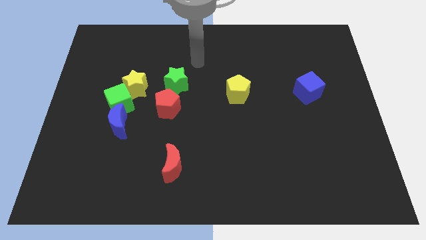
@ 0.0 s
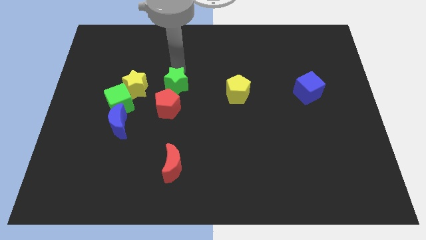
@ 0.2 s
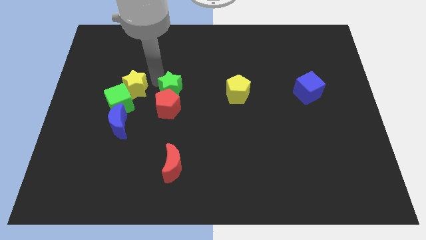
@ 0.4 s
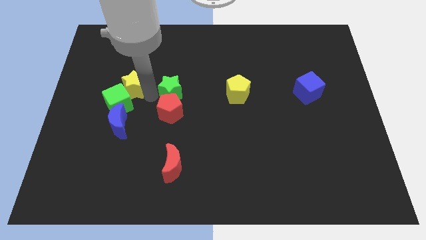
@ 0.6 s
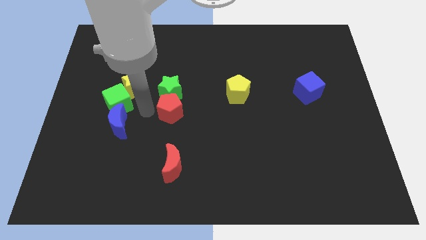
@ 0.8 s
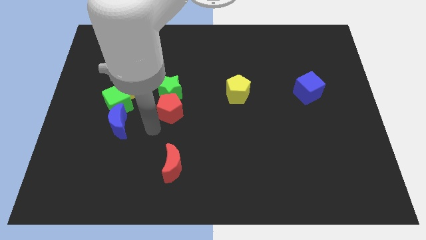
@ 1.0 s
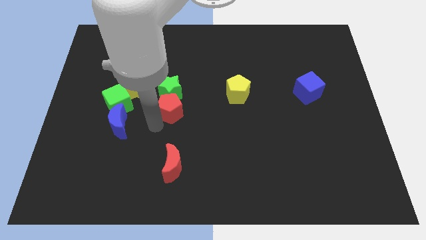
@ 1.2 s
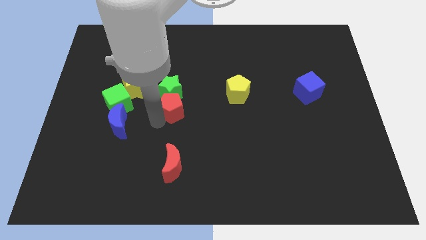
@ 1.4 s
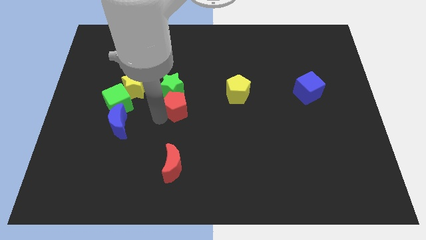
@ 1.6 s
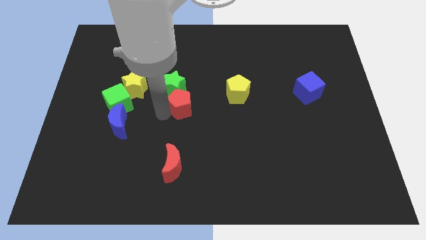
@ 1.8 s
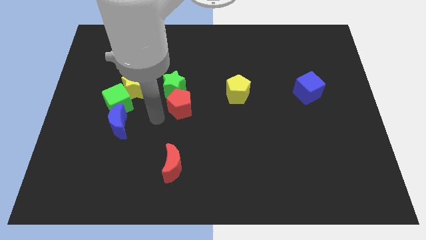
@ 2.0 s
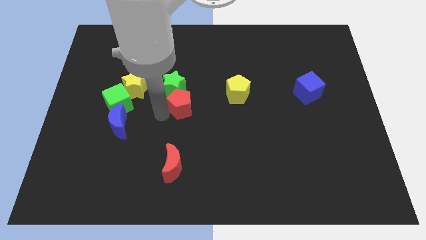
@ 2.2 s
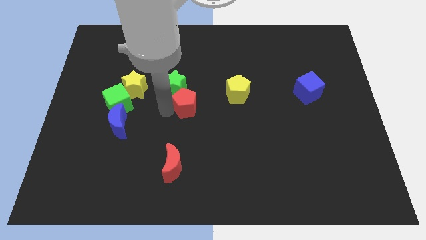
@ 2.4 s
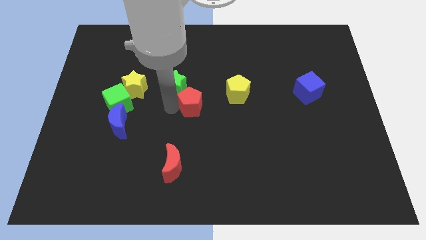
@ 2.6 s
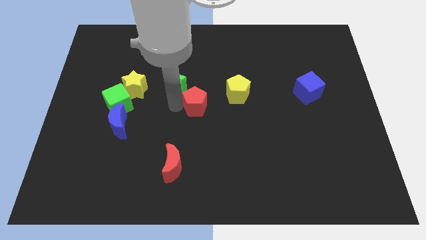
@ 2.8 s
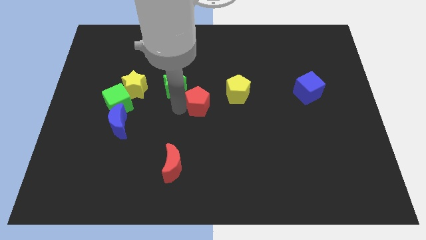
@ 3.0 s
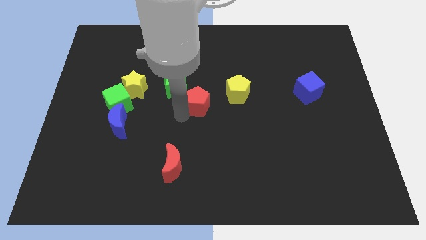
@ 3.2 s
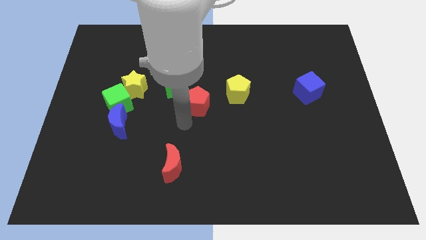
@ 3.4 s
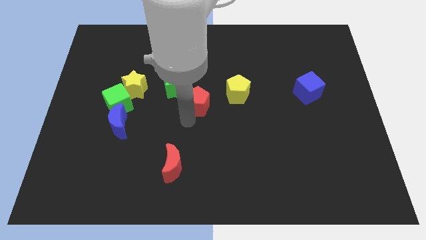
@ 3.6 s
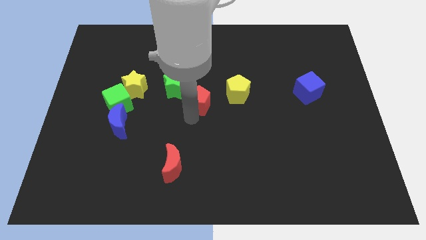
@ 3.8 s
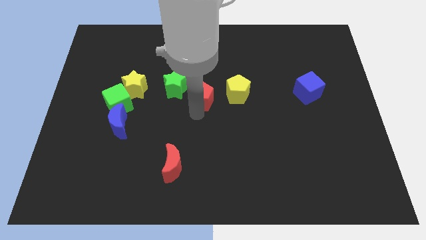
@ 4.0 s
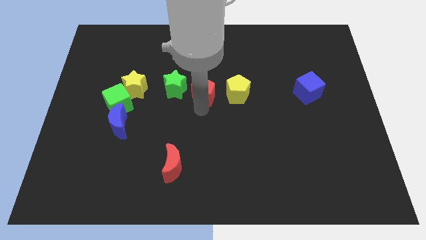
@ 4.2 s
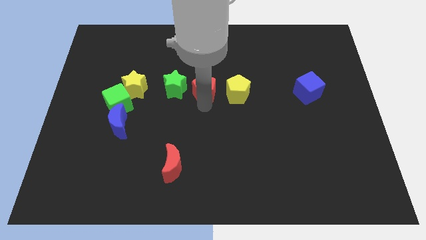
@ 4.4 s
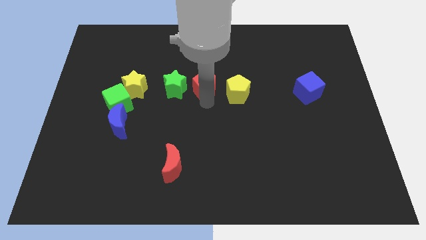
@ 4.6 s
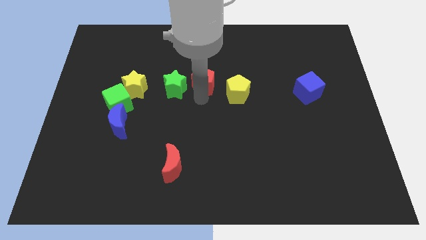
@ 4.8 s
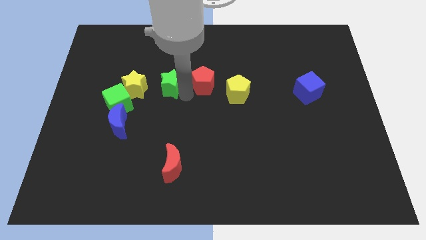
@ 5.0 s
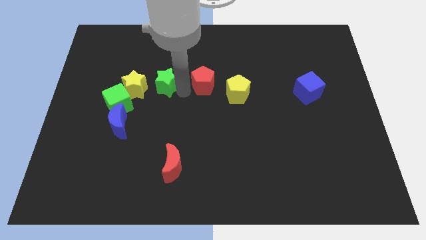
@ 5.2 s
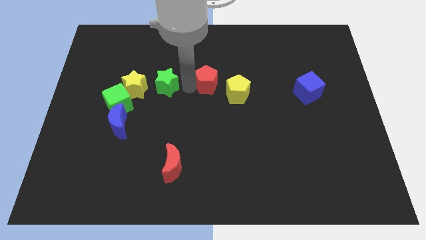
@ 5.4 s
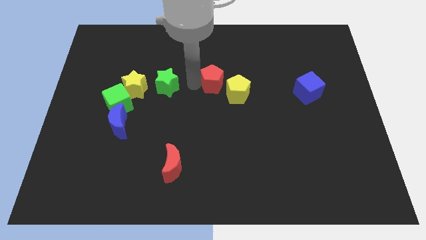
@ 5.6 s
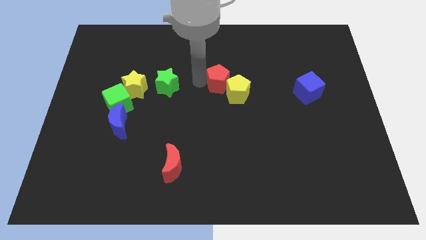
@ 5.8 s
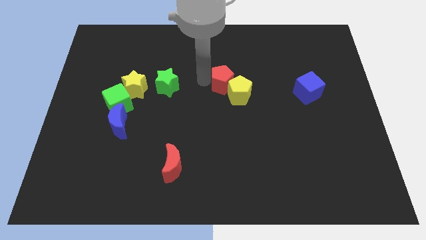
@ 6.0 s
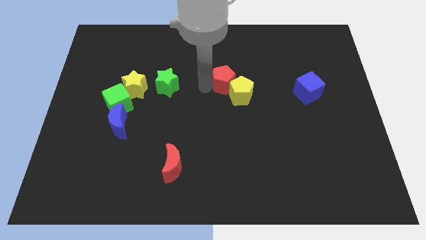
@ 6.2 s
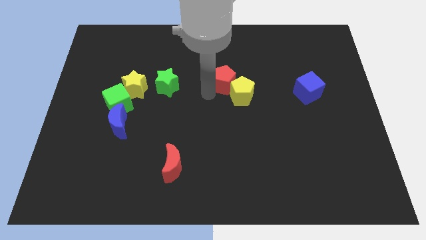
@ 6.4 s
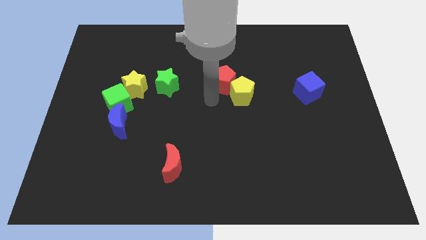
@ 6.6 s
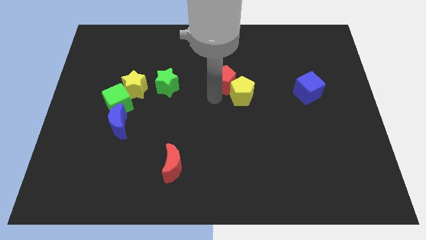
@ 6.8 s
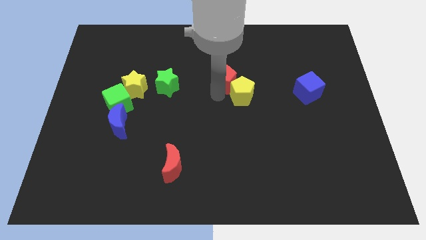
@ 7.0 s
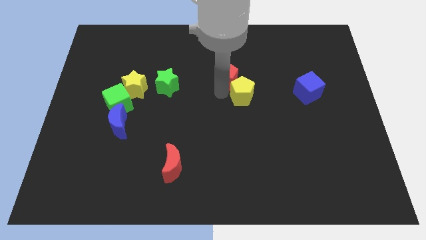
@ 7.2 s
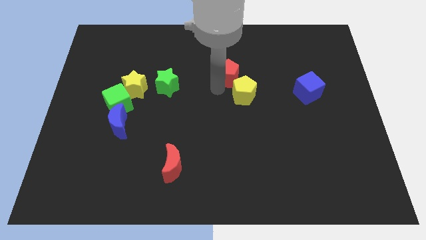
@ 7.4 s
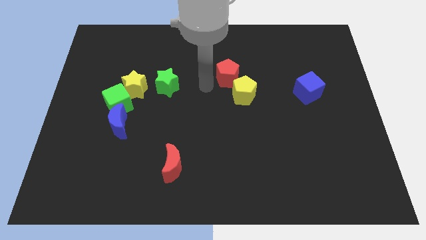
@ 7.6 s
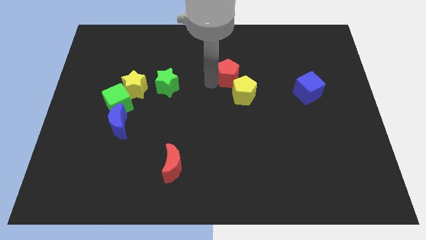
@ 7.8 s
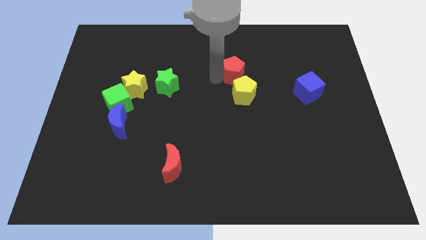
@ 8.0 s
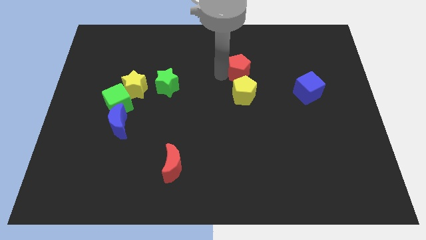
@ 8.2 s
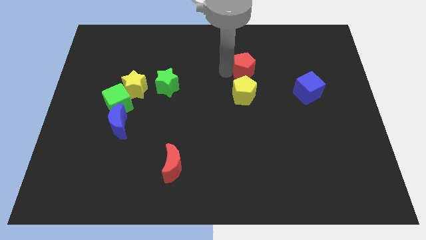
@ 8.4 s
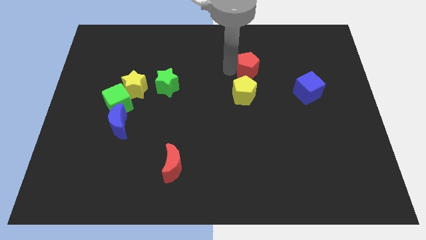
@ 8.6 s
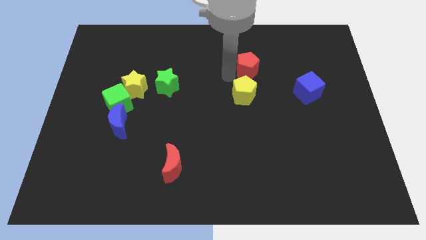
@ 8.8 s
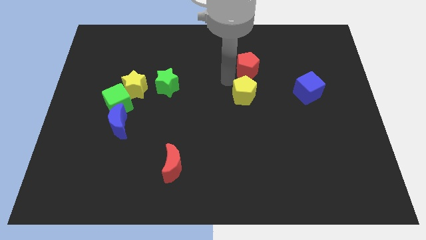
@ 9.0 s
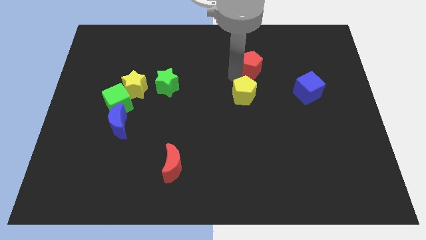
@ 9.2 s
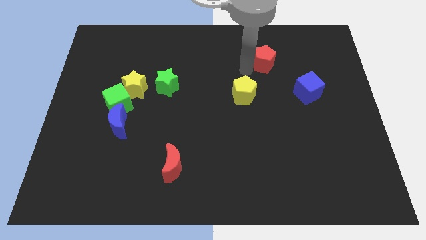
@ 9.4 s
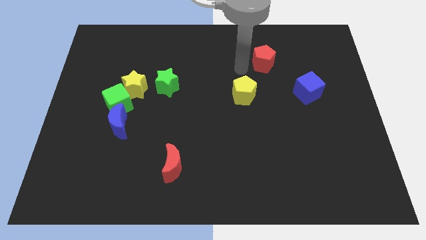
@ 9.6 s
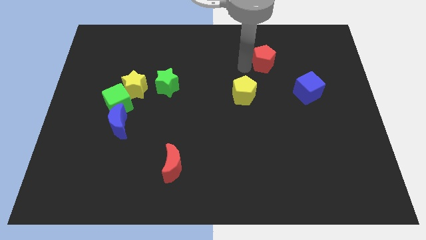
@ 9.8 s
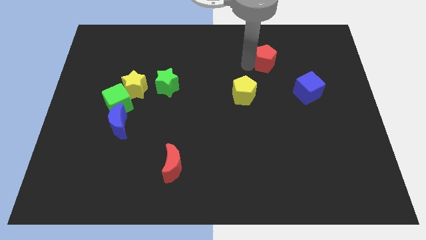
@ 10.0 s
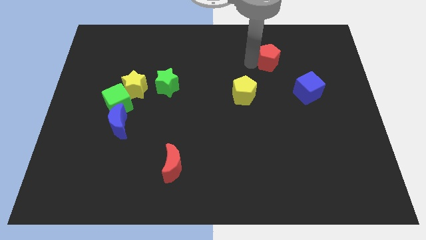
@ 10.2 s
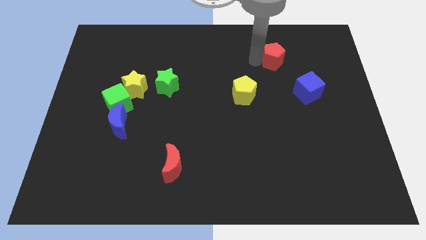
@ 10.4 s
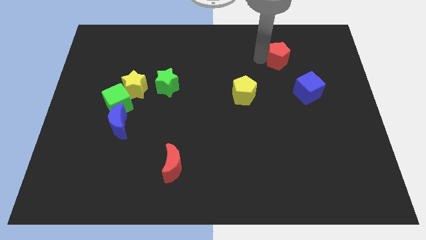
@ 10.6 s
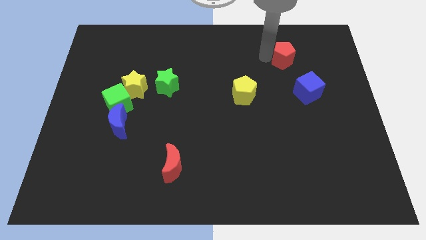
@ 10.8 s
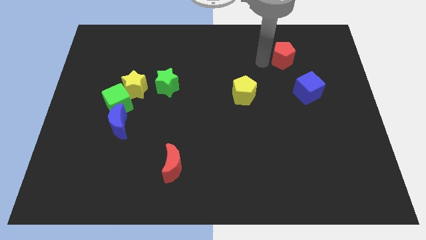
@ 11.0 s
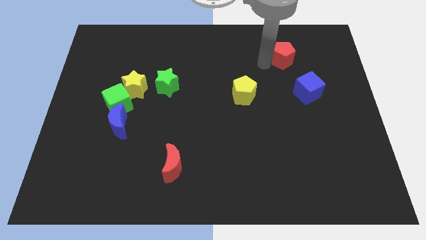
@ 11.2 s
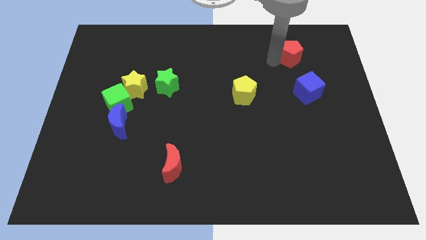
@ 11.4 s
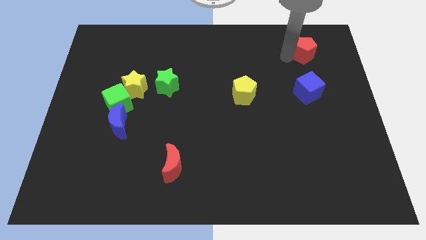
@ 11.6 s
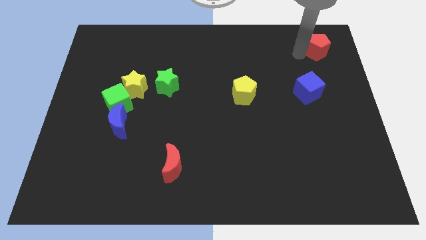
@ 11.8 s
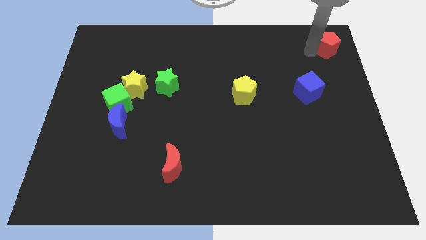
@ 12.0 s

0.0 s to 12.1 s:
push the red pentagon to the top right
